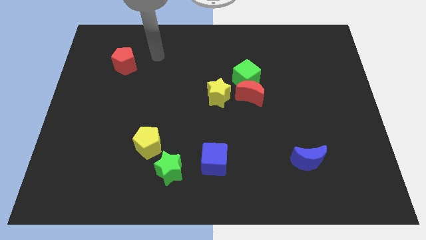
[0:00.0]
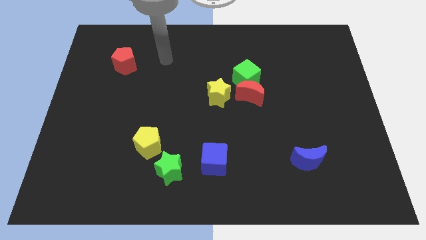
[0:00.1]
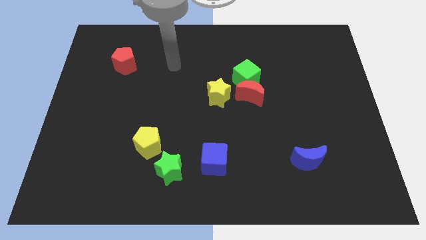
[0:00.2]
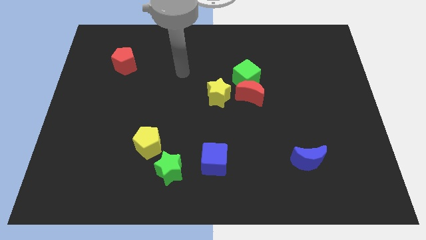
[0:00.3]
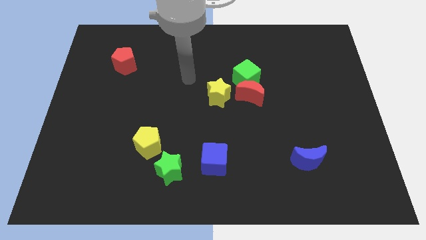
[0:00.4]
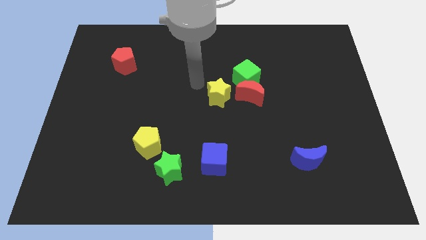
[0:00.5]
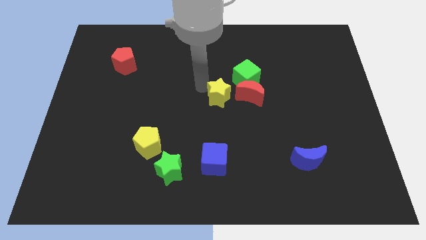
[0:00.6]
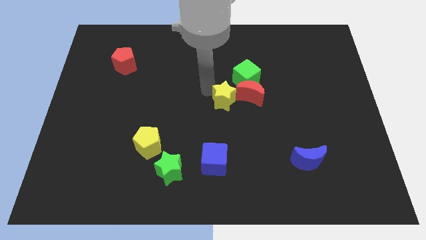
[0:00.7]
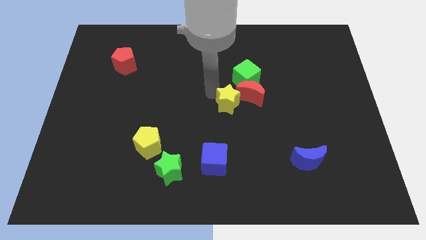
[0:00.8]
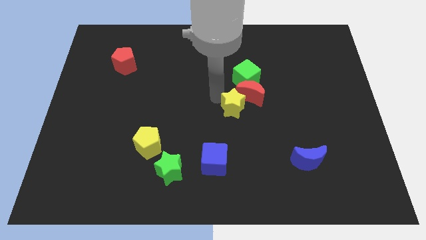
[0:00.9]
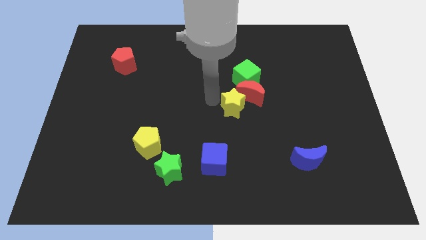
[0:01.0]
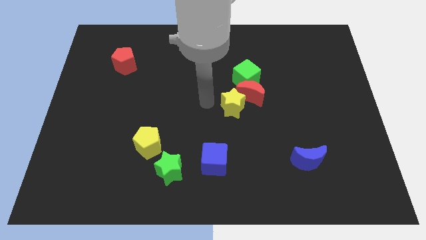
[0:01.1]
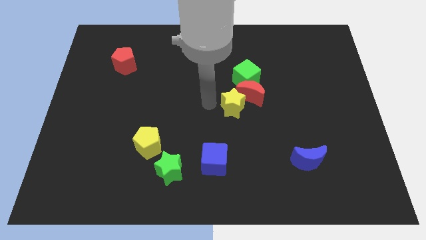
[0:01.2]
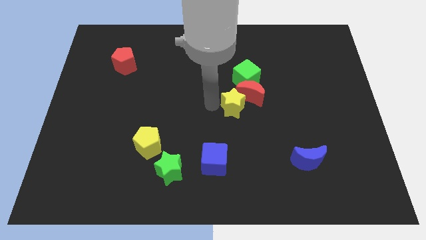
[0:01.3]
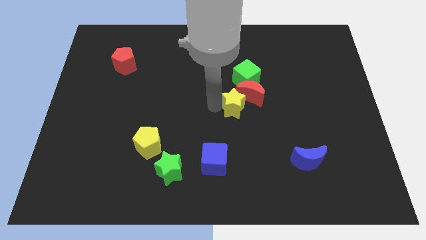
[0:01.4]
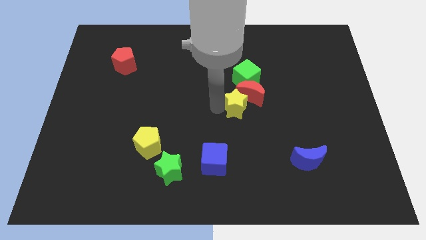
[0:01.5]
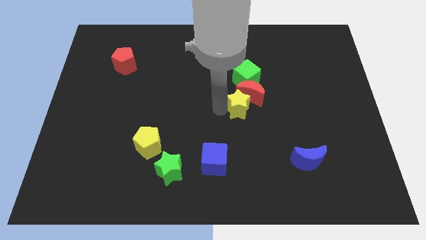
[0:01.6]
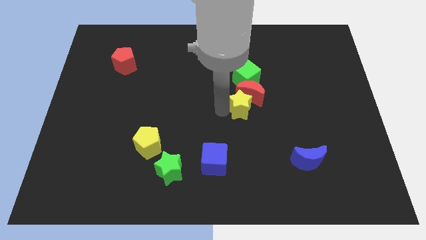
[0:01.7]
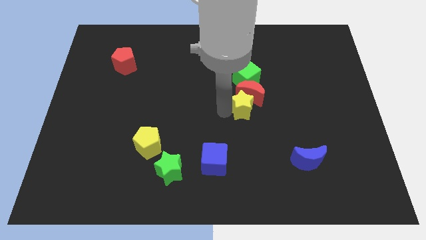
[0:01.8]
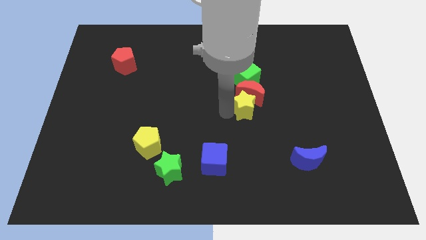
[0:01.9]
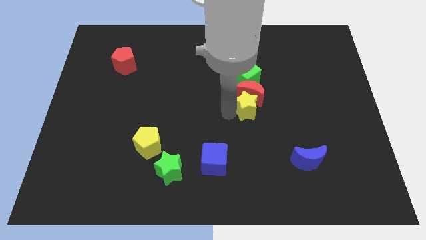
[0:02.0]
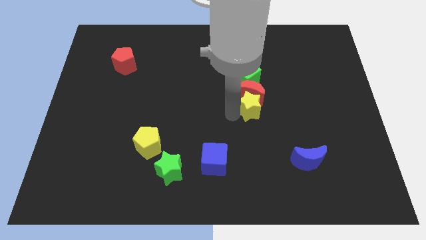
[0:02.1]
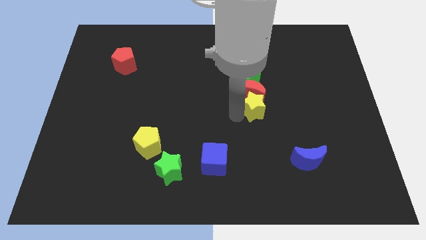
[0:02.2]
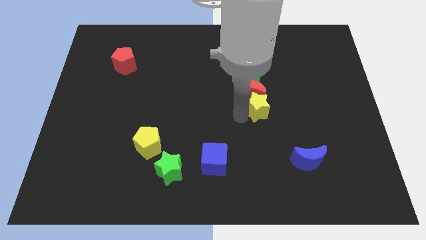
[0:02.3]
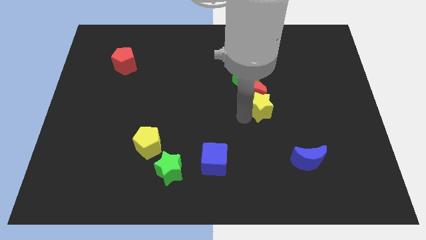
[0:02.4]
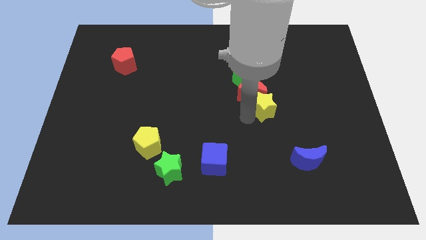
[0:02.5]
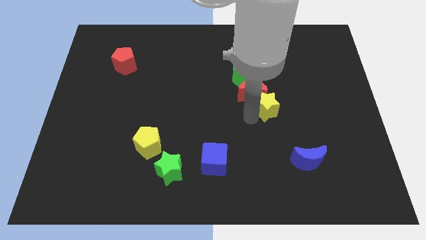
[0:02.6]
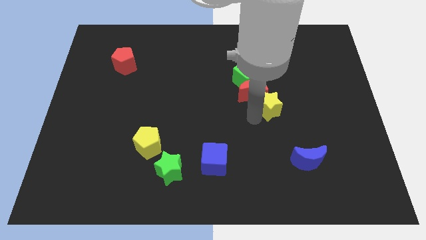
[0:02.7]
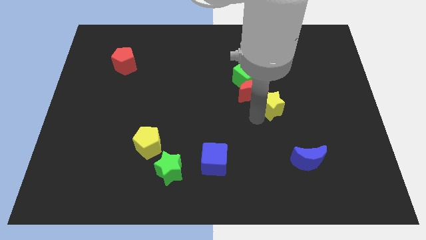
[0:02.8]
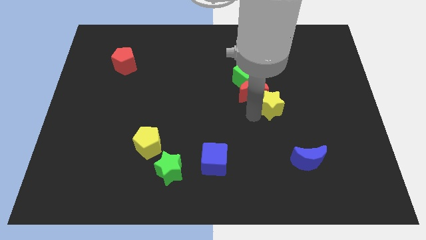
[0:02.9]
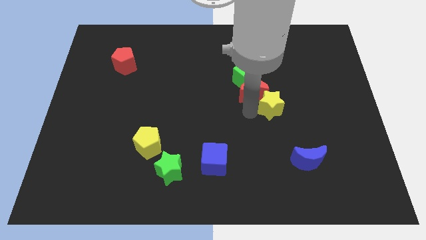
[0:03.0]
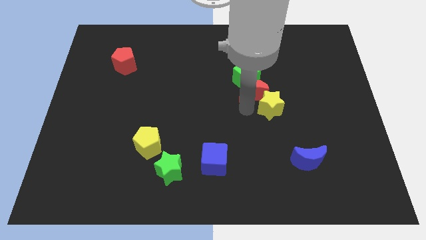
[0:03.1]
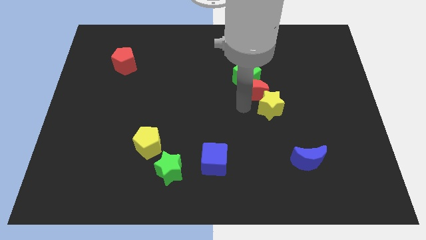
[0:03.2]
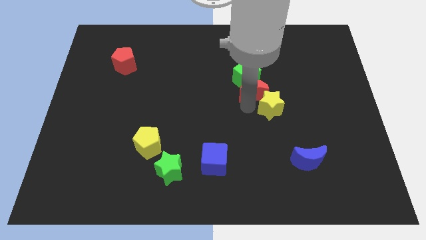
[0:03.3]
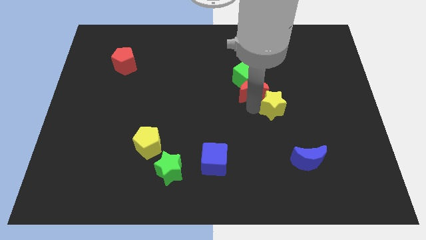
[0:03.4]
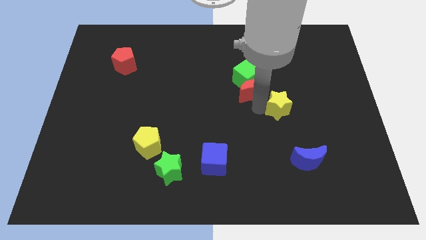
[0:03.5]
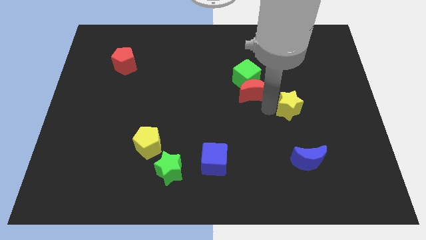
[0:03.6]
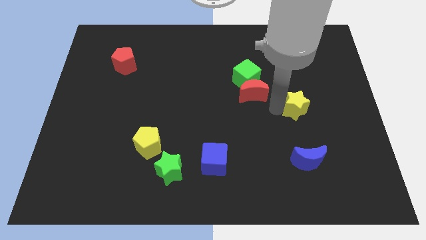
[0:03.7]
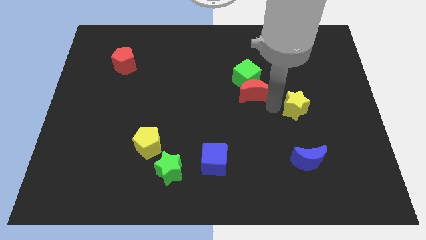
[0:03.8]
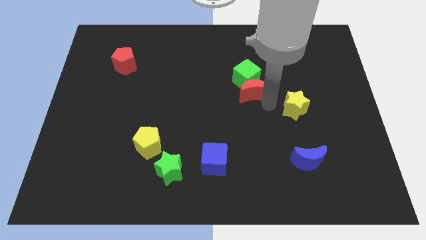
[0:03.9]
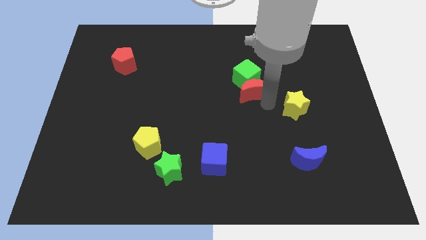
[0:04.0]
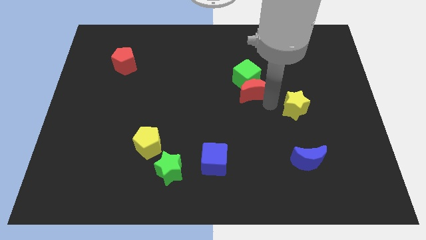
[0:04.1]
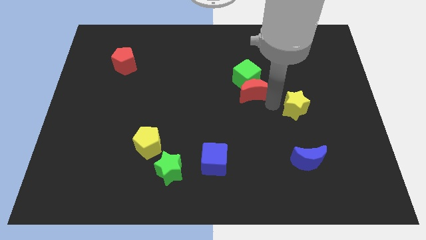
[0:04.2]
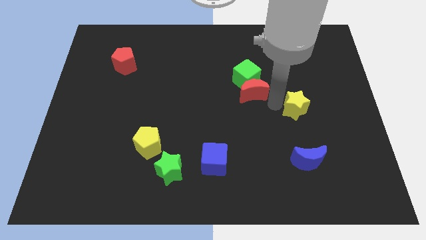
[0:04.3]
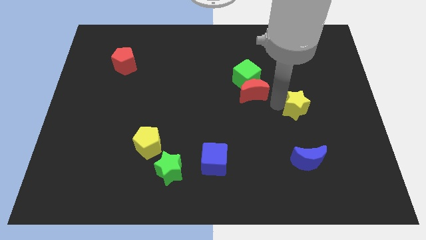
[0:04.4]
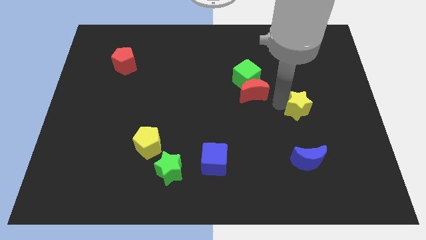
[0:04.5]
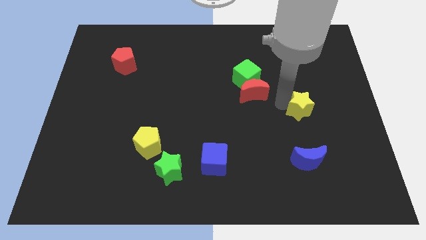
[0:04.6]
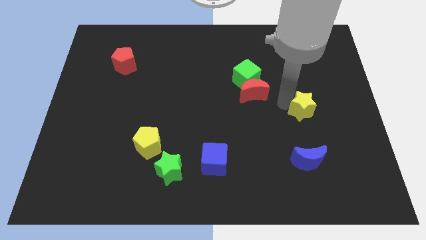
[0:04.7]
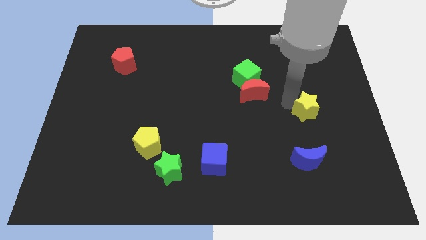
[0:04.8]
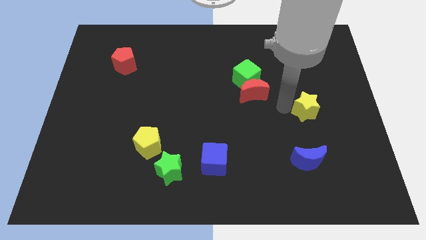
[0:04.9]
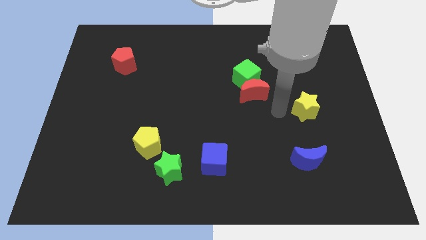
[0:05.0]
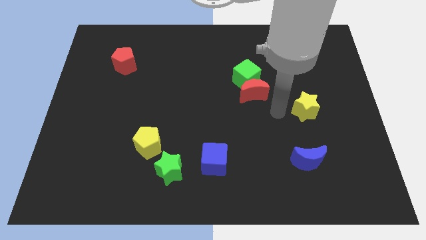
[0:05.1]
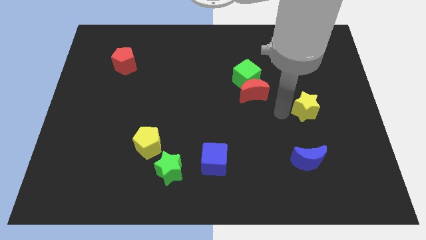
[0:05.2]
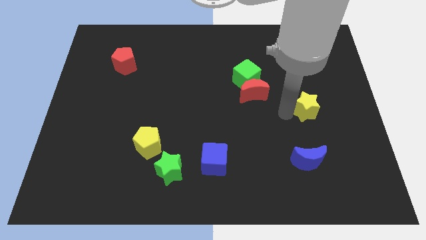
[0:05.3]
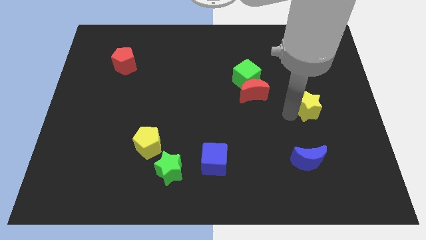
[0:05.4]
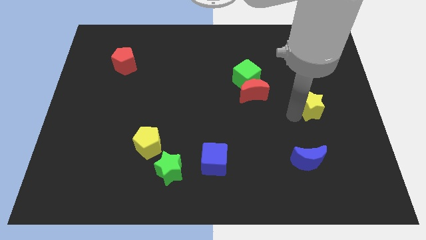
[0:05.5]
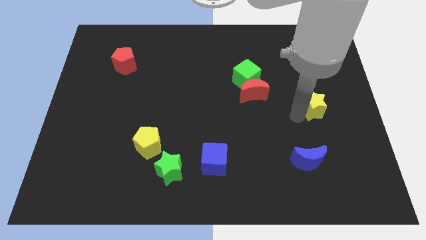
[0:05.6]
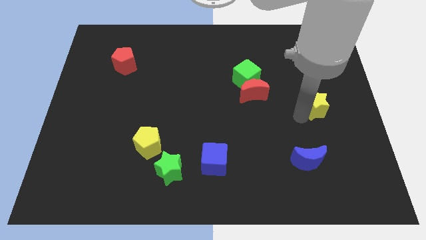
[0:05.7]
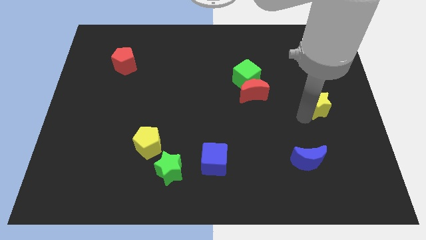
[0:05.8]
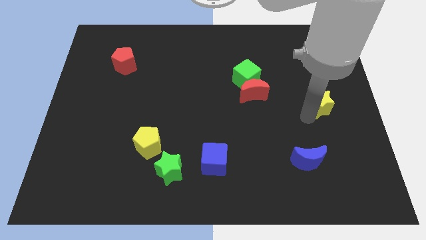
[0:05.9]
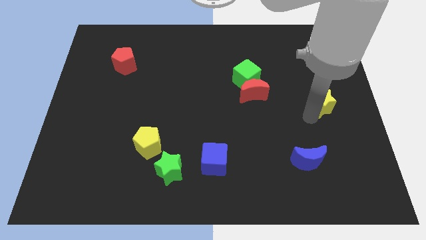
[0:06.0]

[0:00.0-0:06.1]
push the yellow star to the right side
